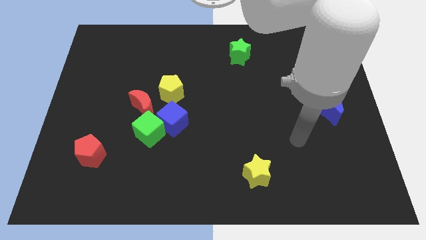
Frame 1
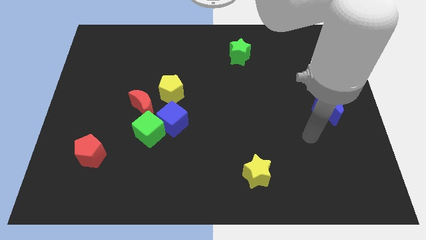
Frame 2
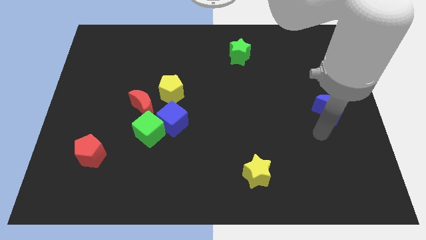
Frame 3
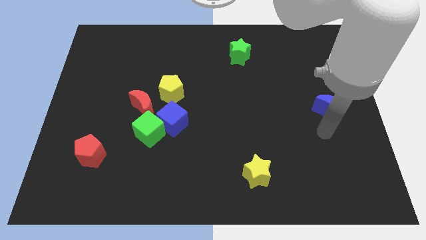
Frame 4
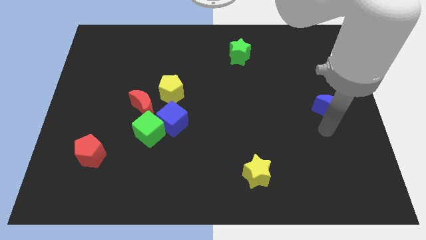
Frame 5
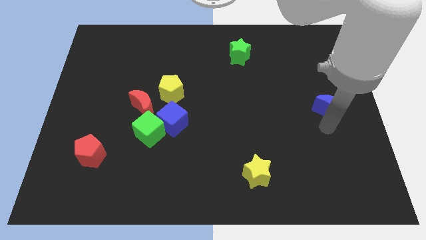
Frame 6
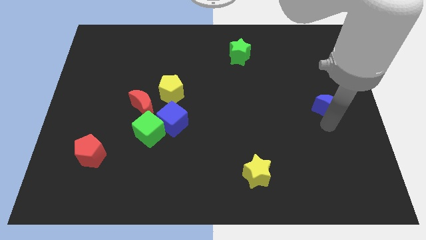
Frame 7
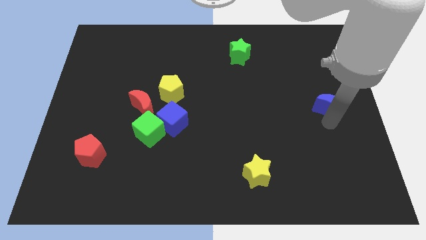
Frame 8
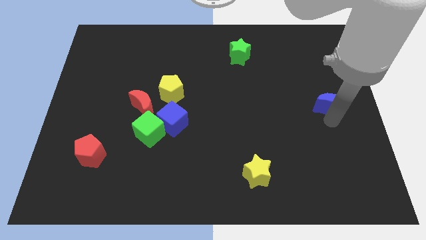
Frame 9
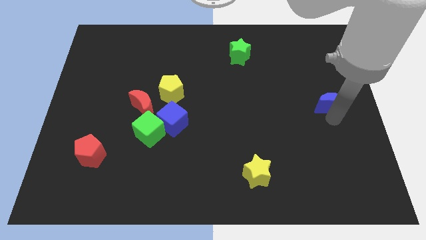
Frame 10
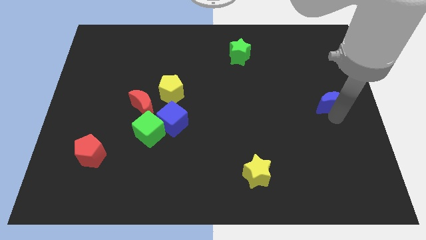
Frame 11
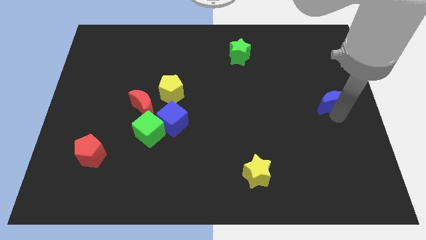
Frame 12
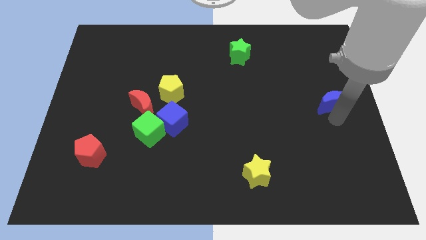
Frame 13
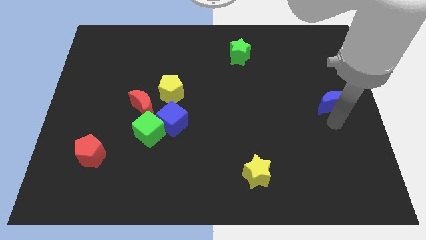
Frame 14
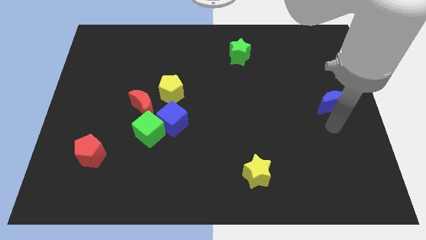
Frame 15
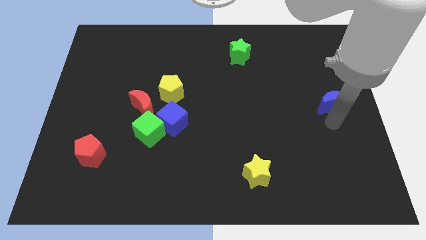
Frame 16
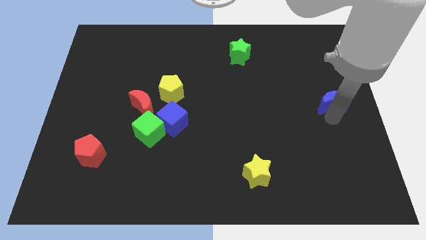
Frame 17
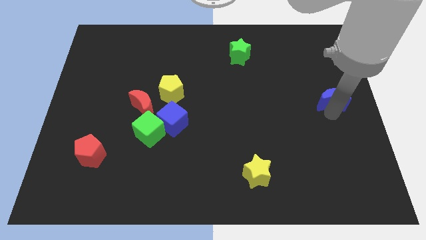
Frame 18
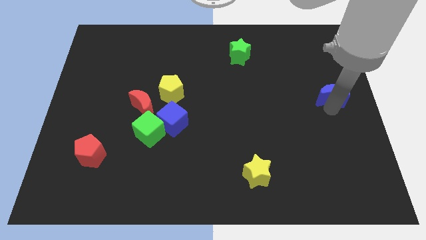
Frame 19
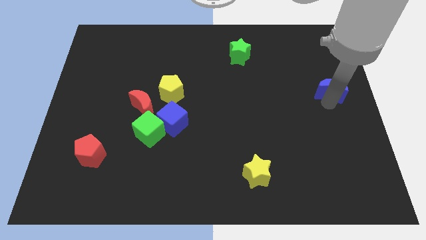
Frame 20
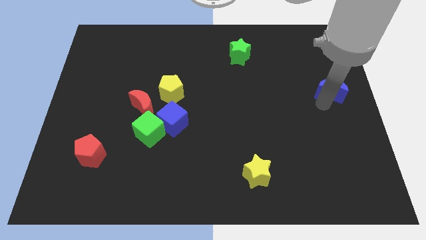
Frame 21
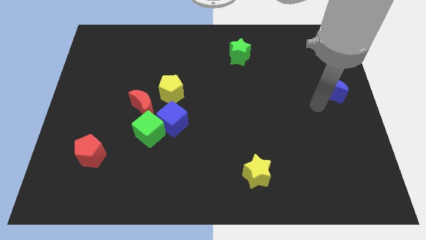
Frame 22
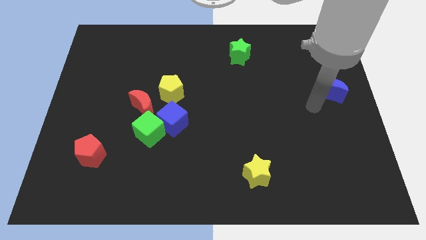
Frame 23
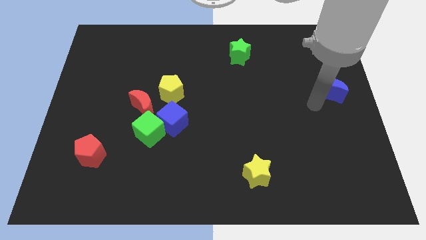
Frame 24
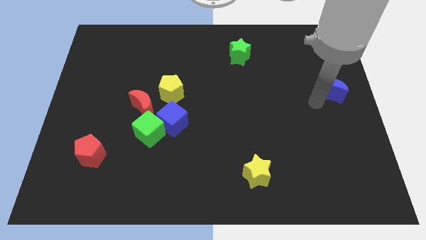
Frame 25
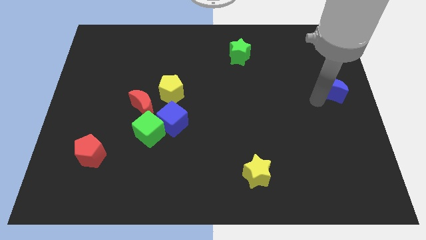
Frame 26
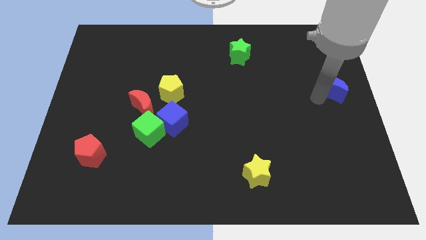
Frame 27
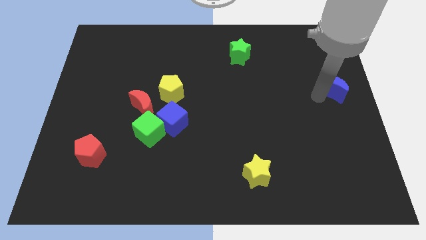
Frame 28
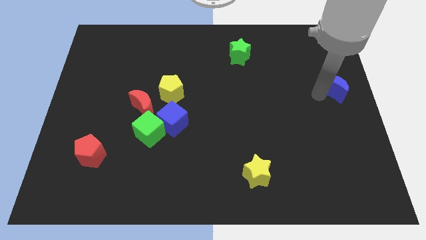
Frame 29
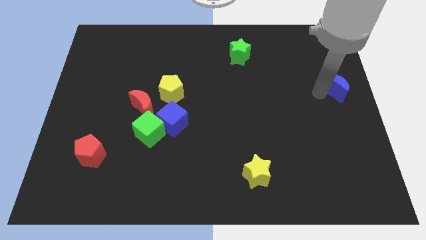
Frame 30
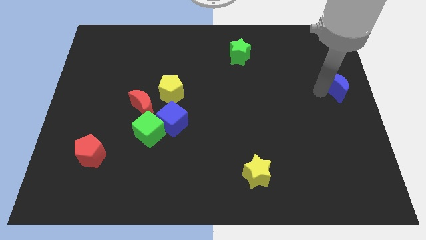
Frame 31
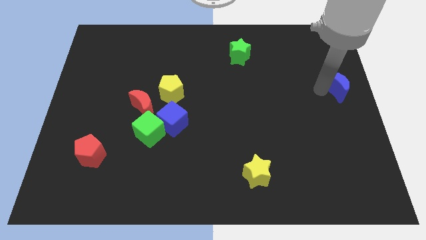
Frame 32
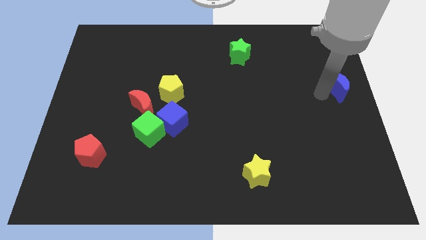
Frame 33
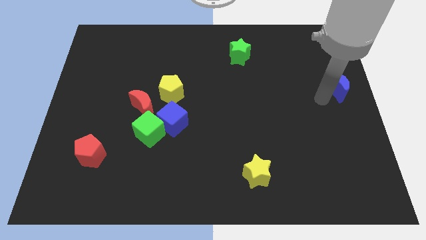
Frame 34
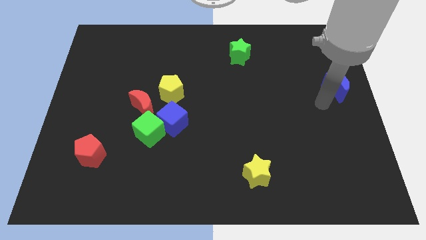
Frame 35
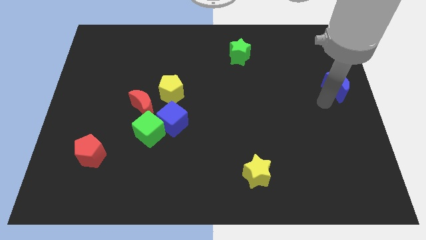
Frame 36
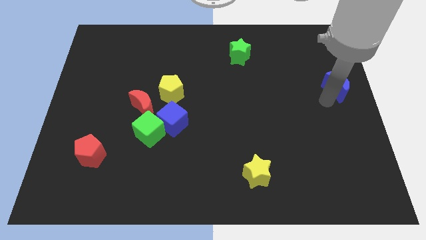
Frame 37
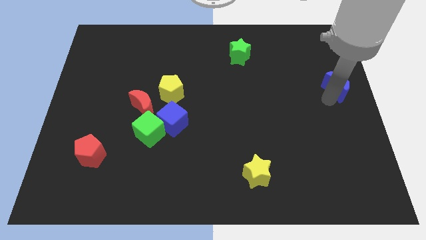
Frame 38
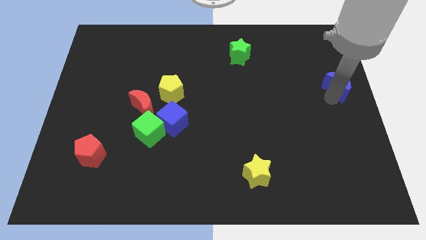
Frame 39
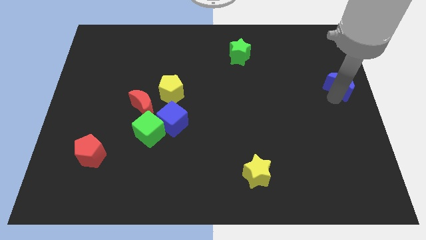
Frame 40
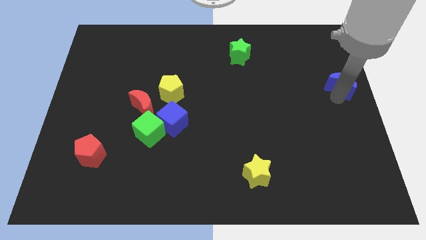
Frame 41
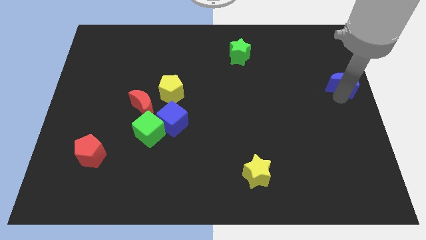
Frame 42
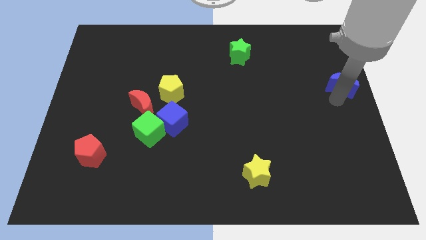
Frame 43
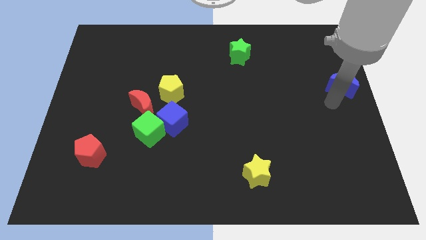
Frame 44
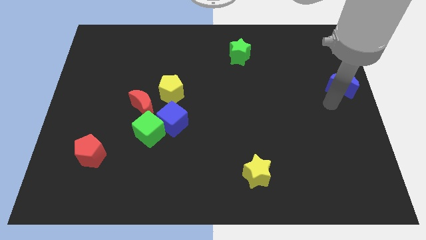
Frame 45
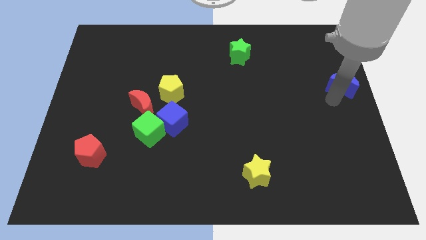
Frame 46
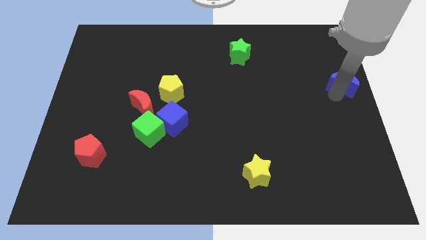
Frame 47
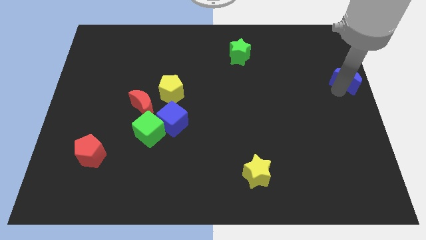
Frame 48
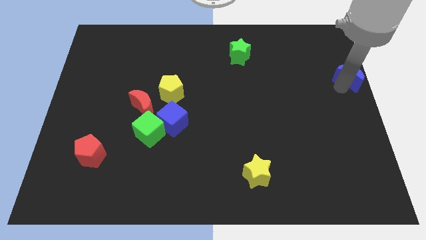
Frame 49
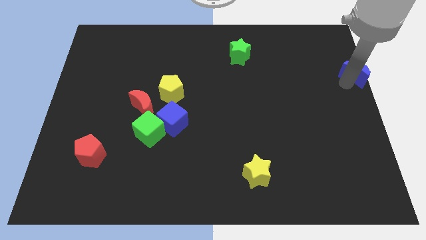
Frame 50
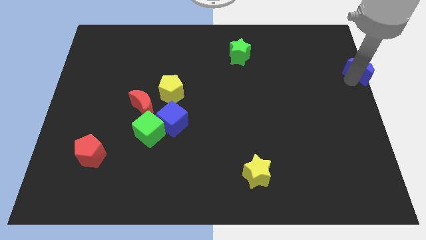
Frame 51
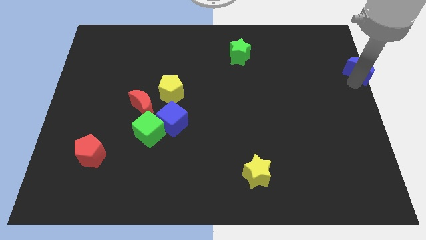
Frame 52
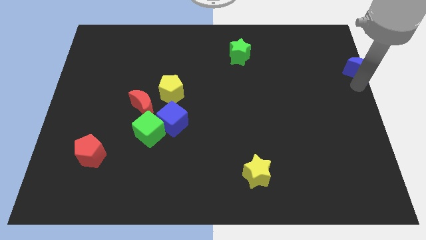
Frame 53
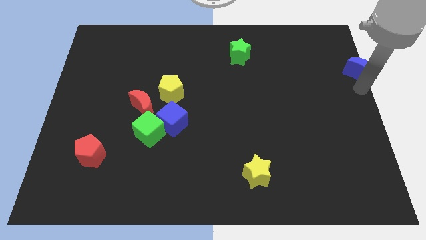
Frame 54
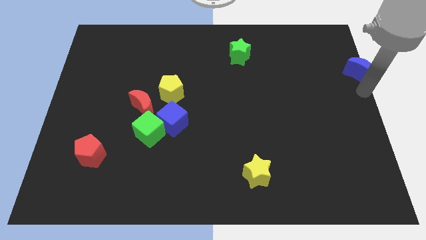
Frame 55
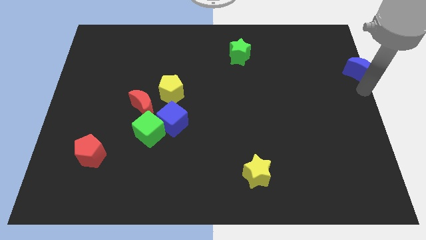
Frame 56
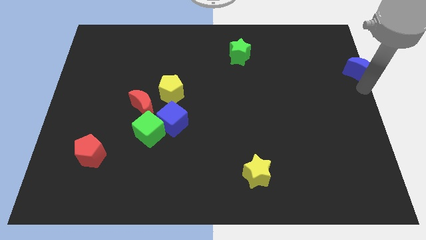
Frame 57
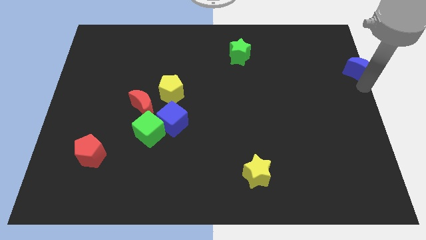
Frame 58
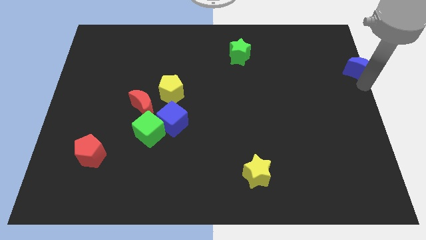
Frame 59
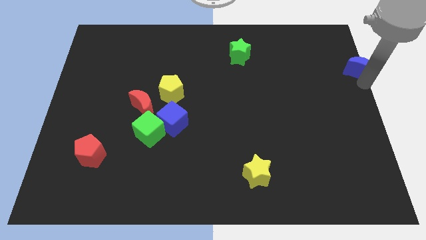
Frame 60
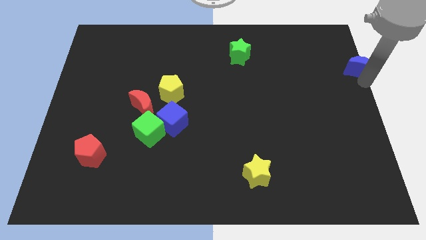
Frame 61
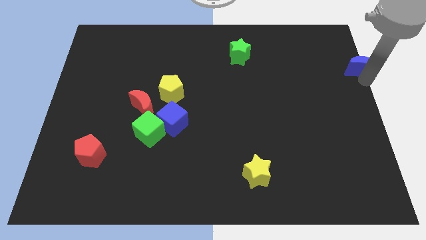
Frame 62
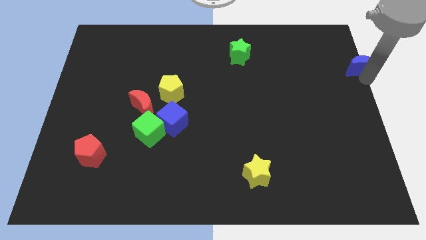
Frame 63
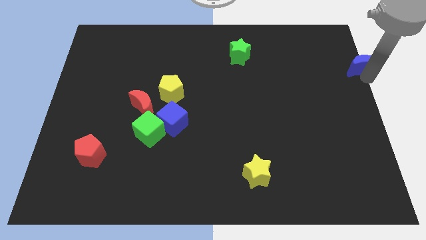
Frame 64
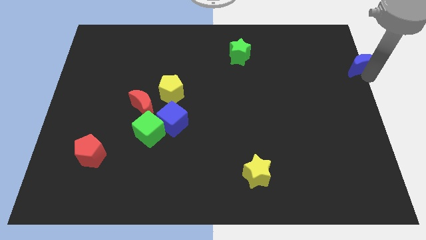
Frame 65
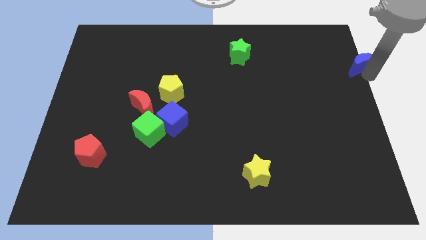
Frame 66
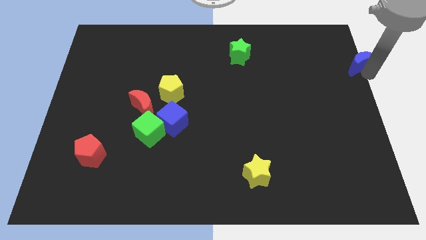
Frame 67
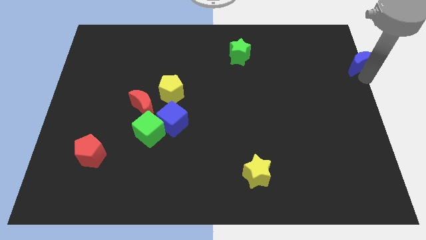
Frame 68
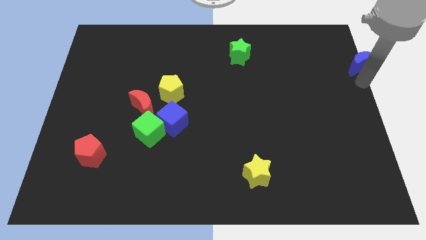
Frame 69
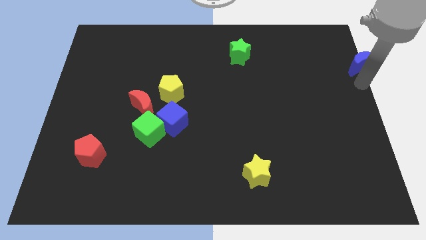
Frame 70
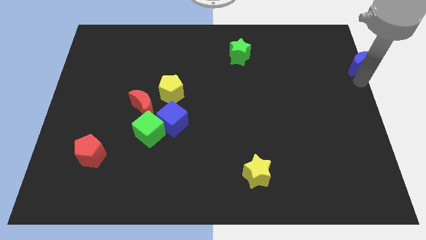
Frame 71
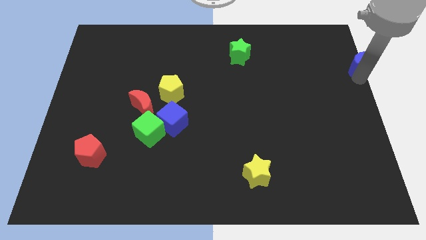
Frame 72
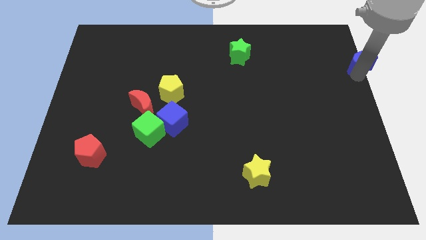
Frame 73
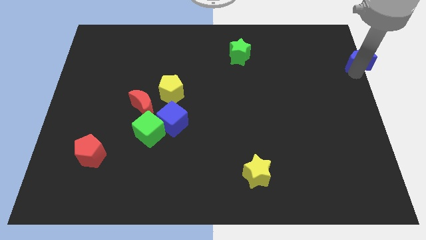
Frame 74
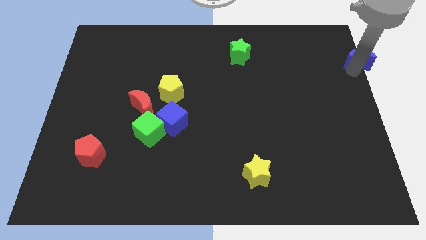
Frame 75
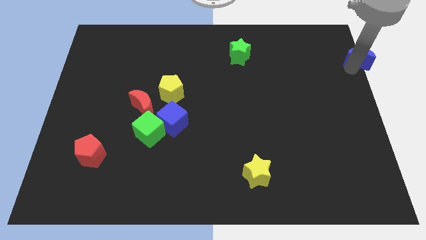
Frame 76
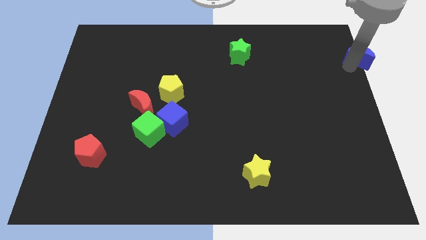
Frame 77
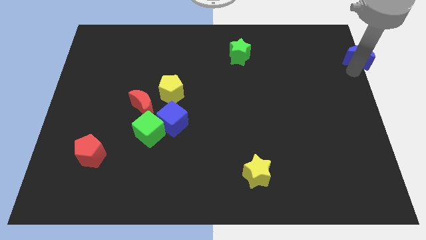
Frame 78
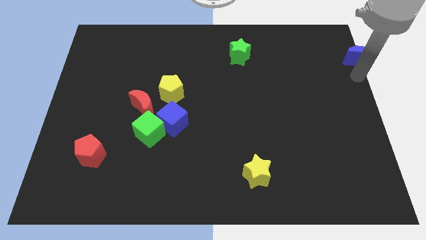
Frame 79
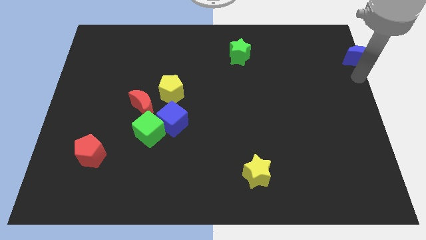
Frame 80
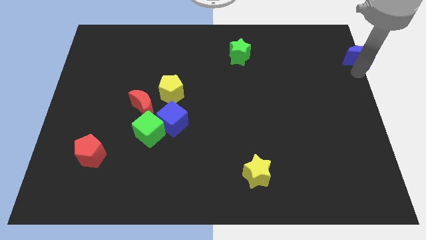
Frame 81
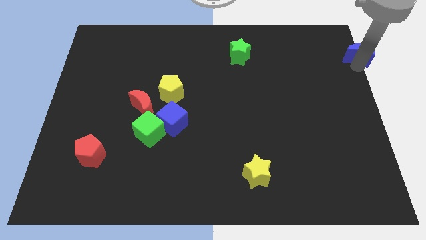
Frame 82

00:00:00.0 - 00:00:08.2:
move the blue moon to the top right
